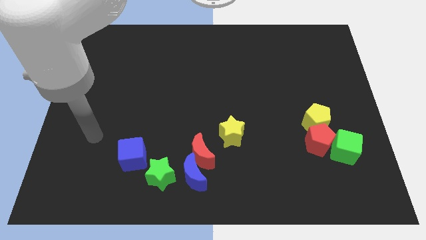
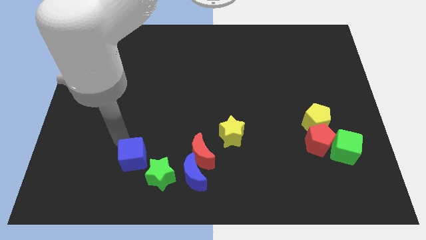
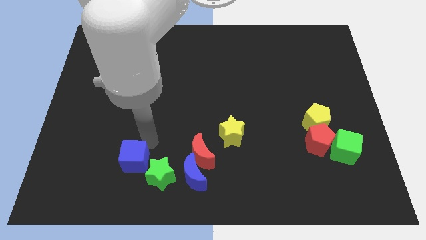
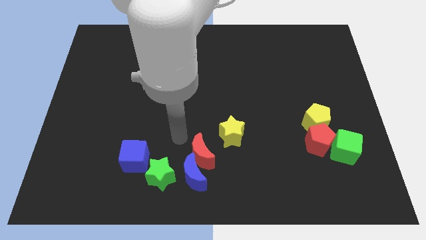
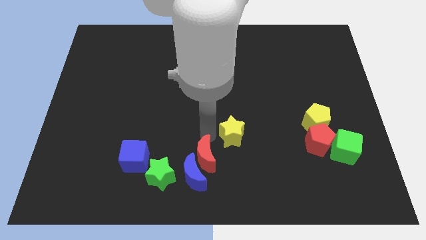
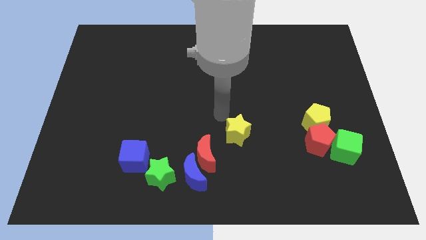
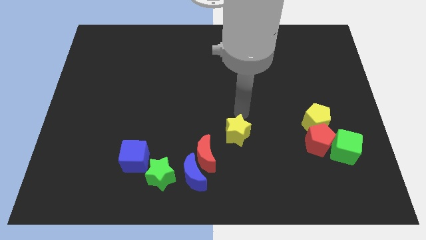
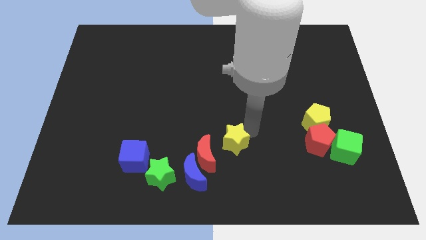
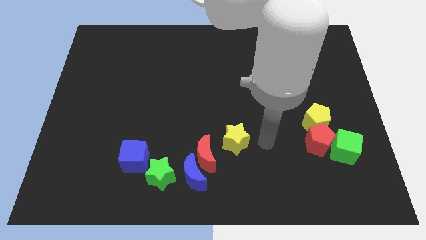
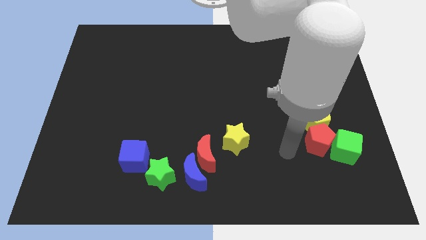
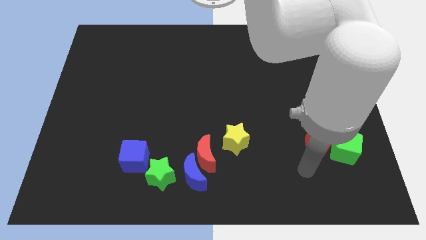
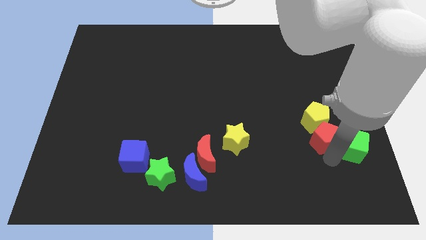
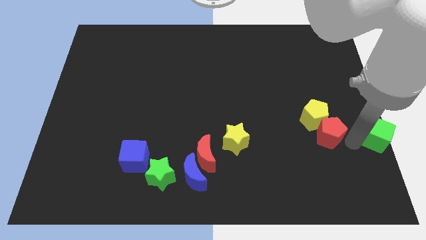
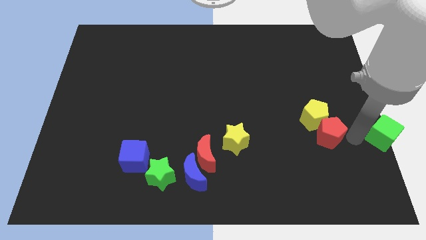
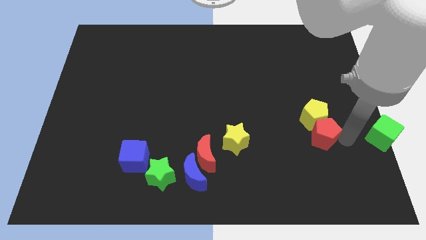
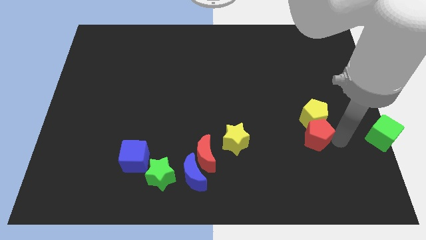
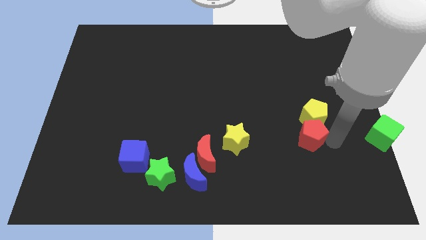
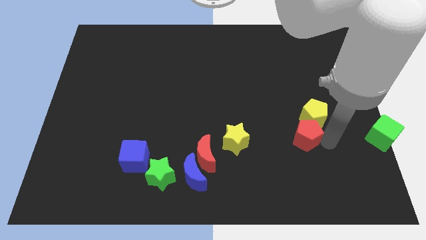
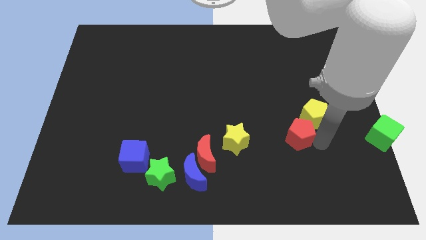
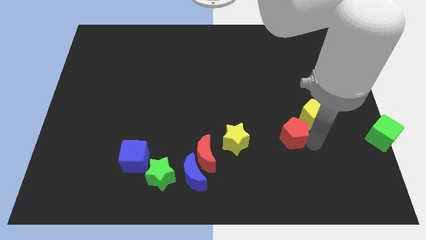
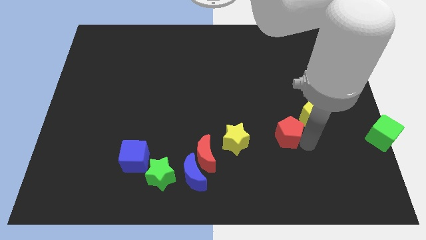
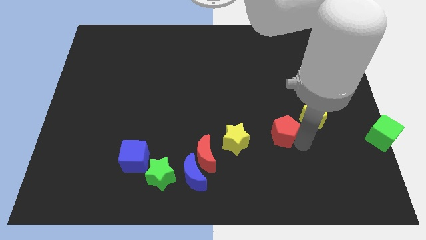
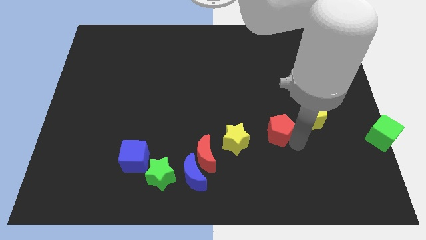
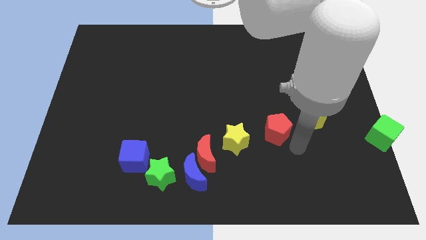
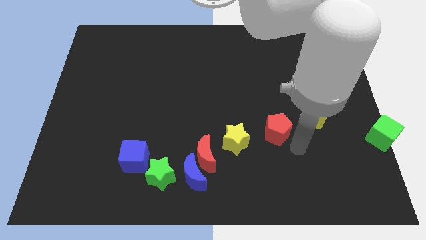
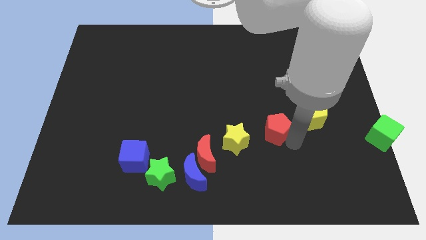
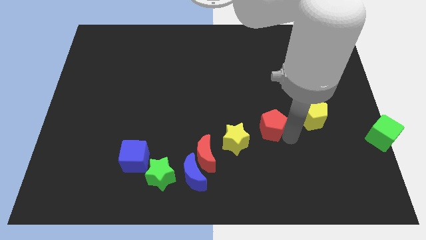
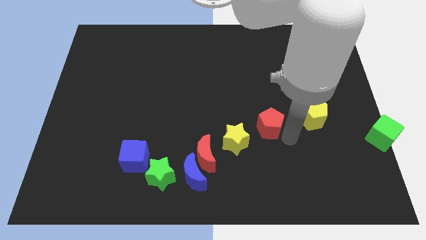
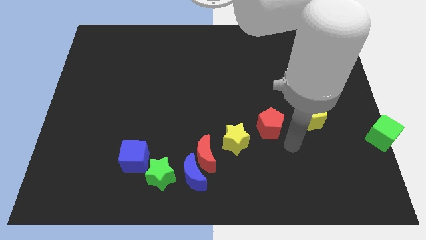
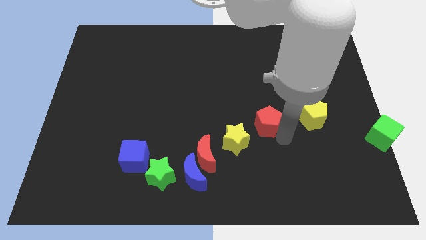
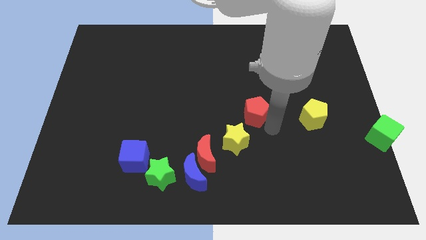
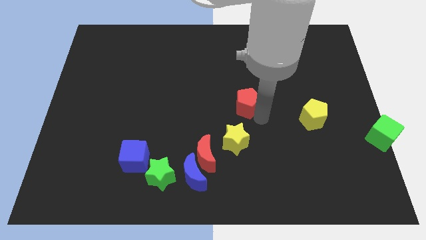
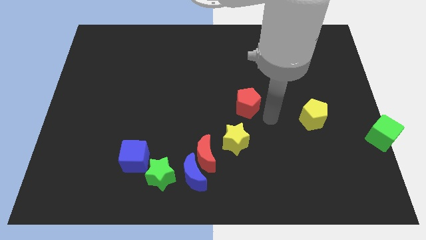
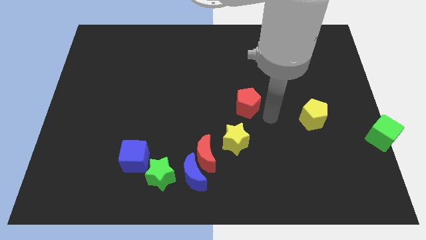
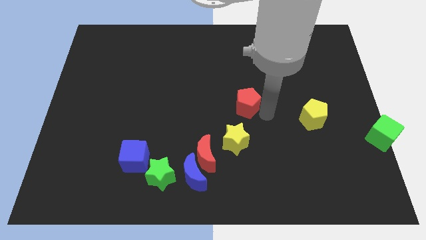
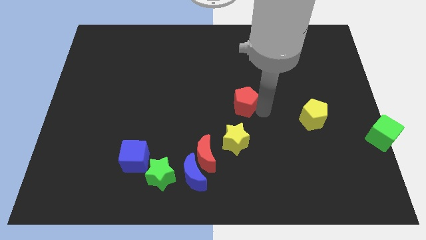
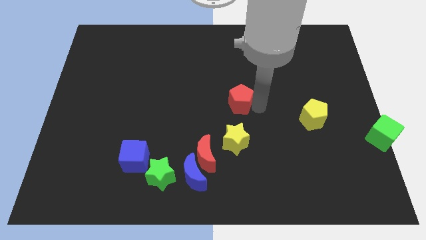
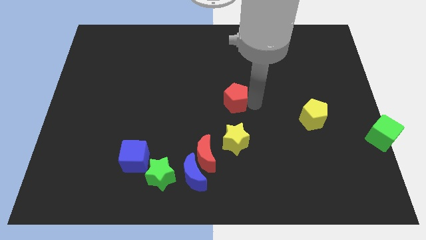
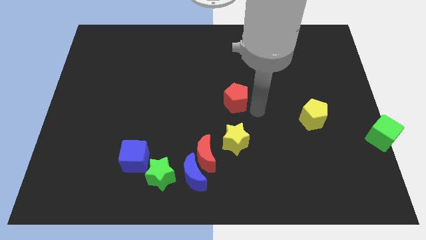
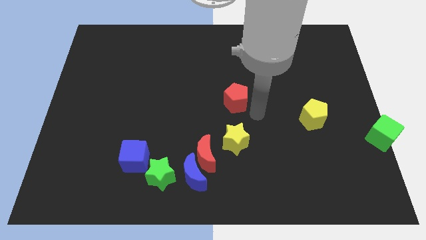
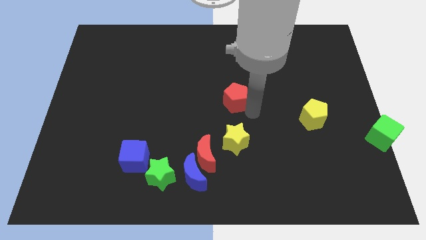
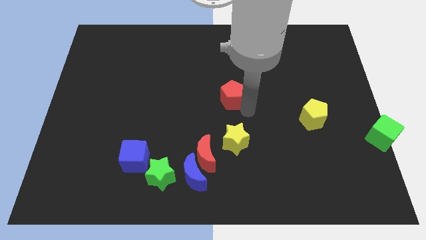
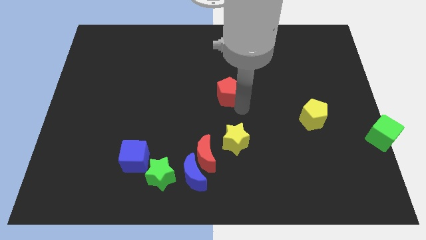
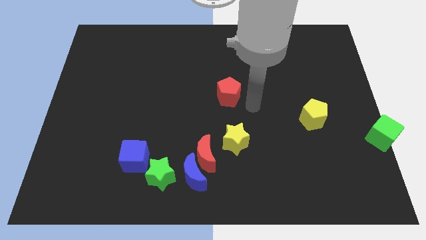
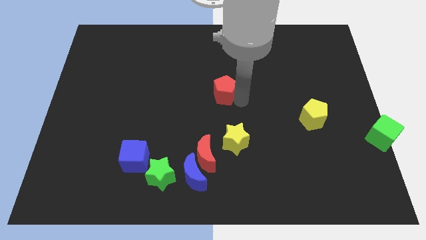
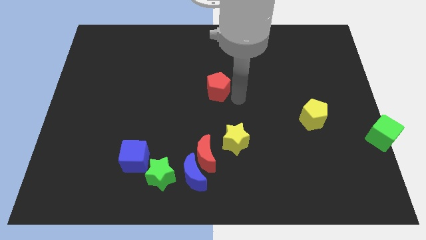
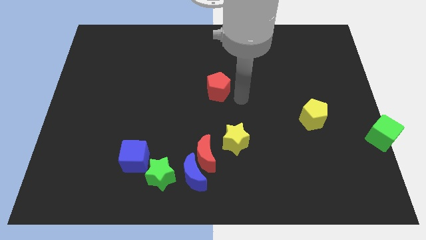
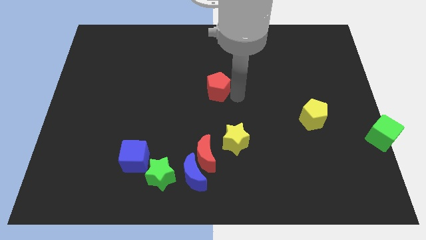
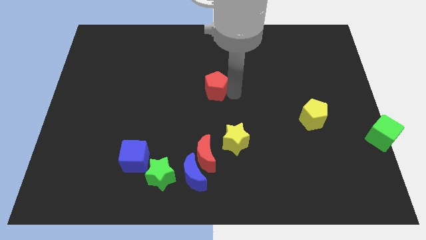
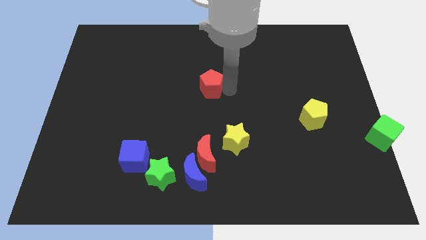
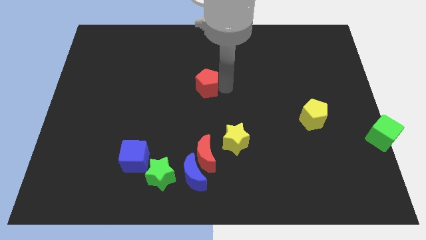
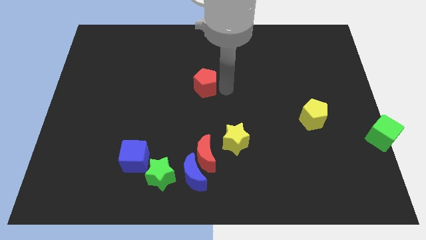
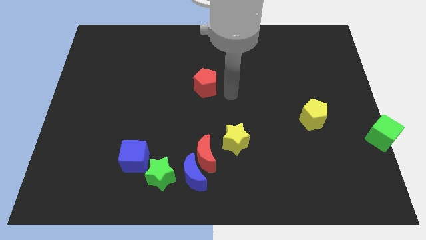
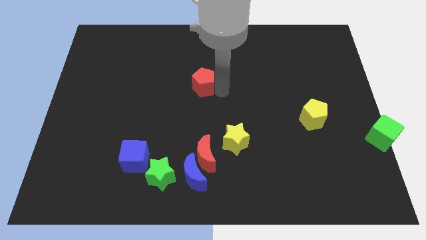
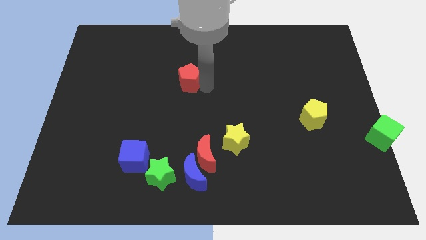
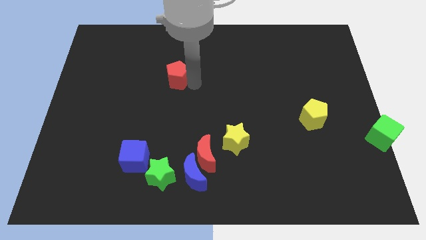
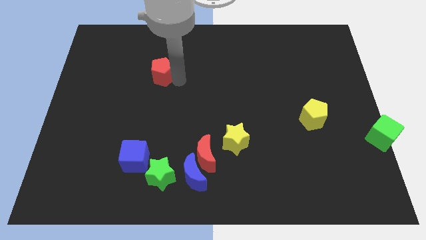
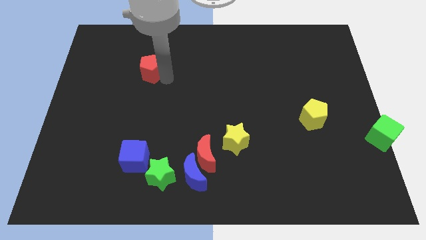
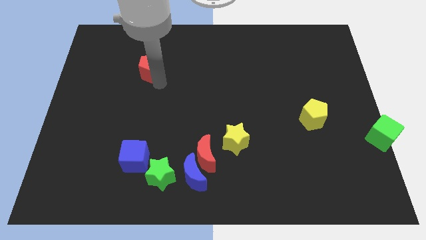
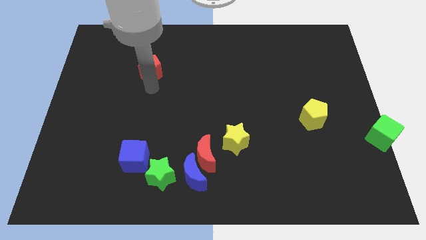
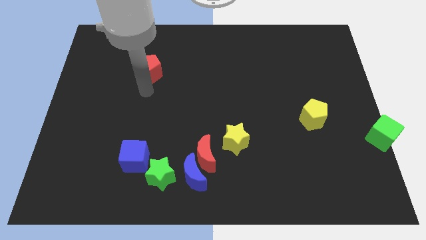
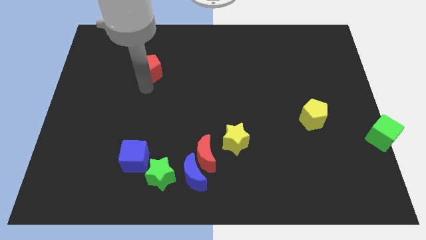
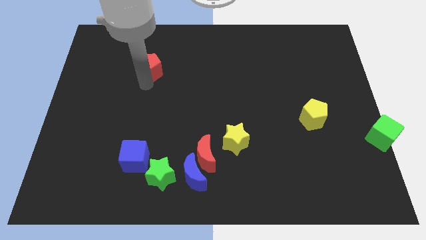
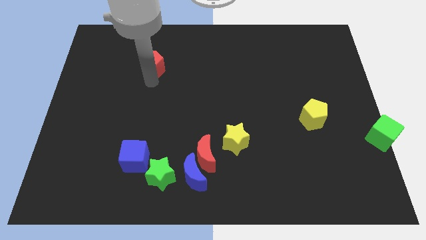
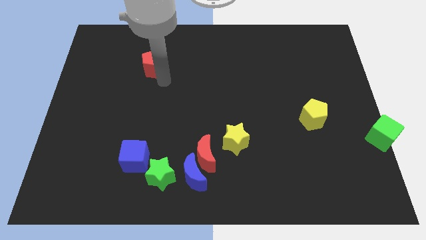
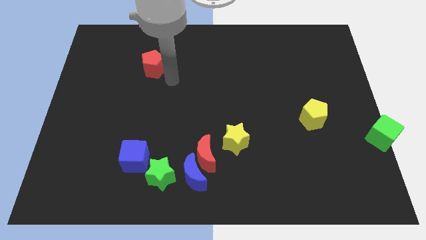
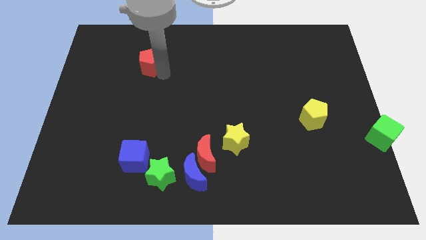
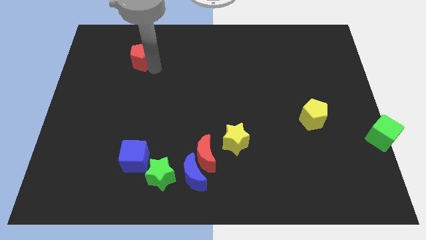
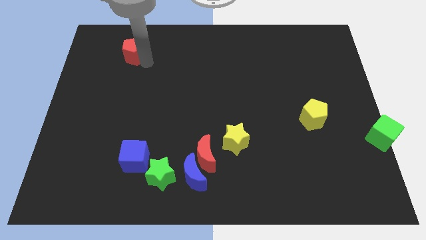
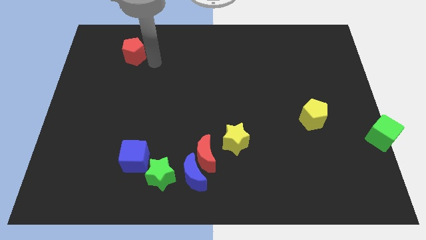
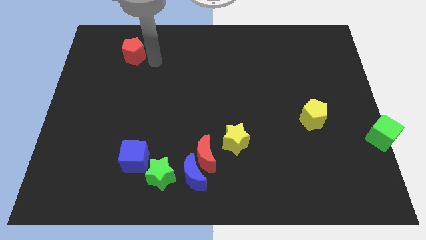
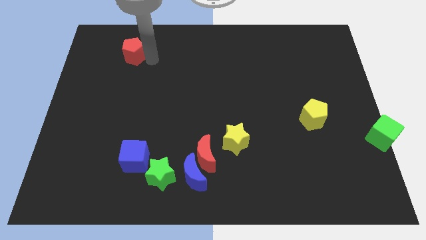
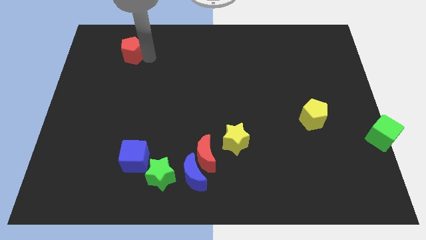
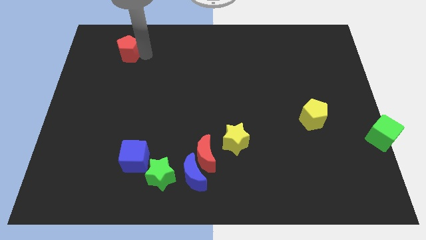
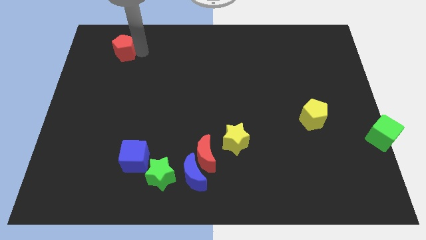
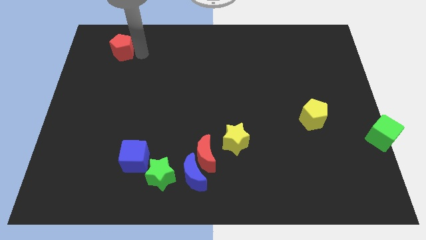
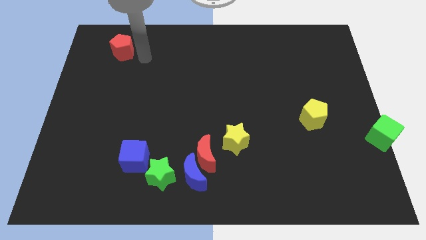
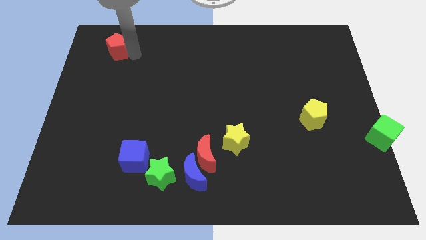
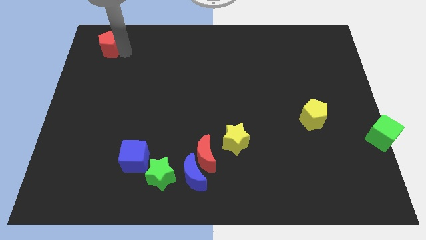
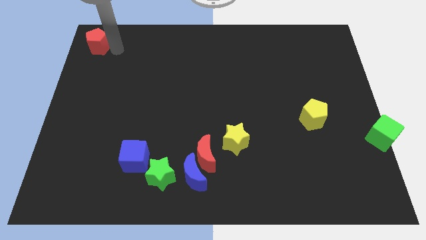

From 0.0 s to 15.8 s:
push the red pentagon to the top left corner
